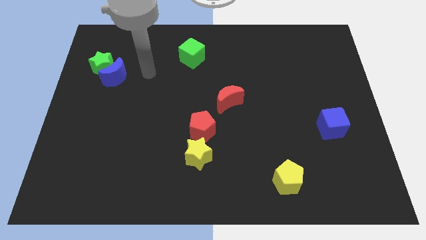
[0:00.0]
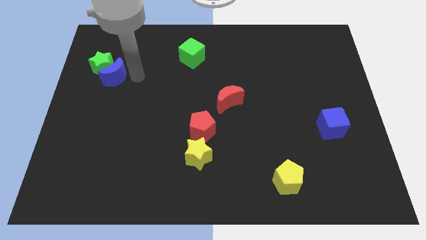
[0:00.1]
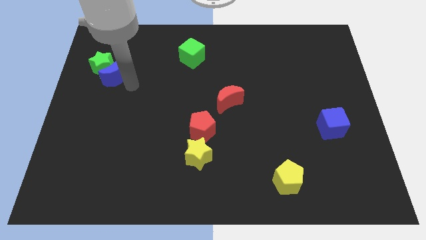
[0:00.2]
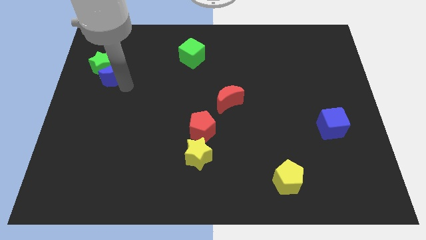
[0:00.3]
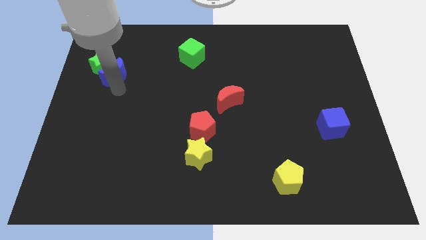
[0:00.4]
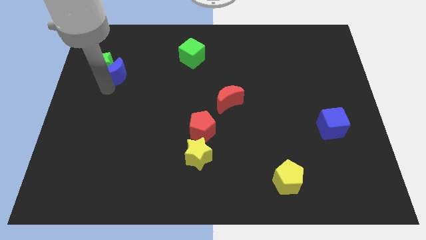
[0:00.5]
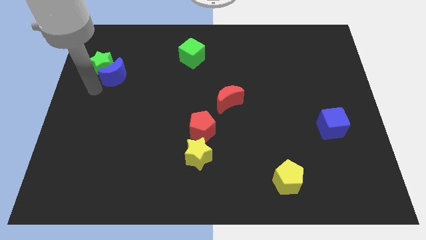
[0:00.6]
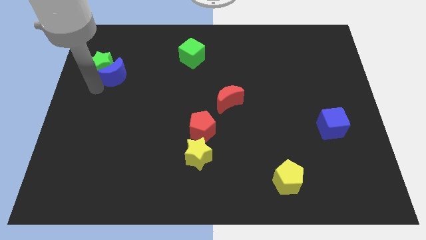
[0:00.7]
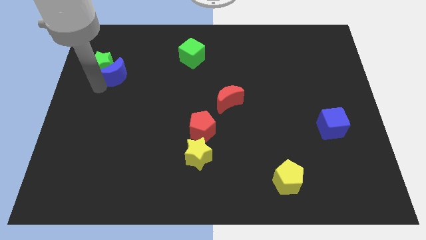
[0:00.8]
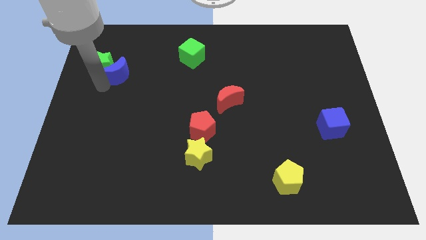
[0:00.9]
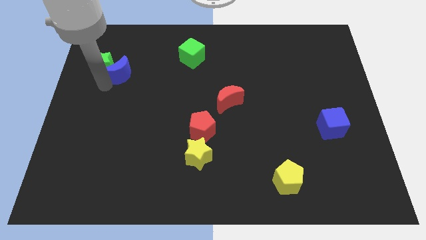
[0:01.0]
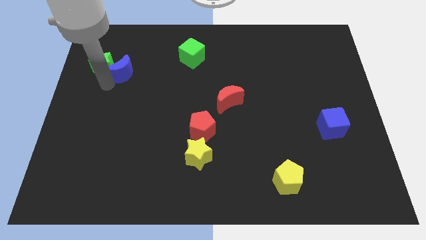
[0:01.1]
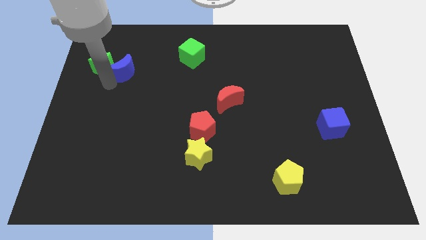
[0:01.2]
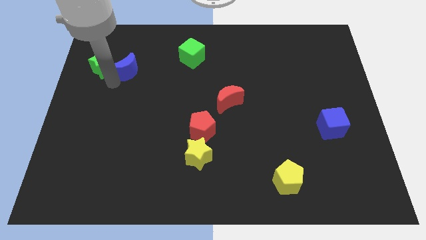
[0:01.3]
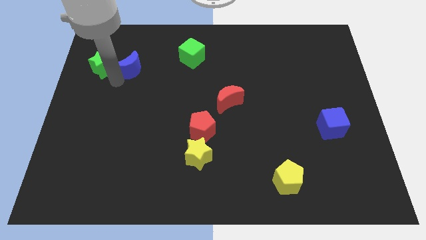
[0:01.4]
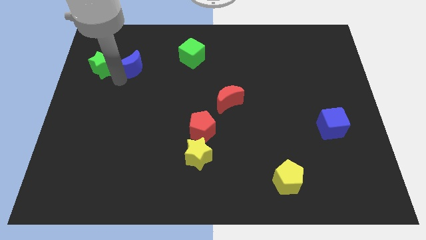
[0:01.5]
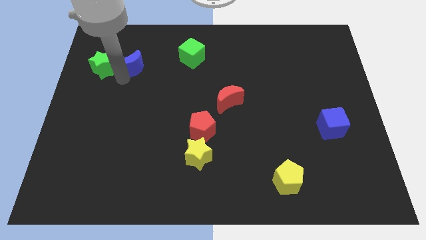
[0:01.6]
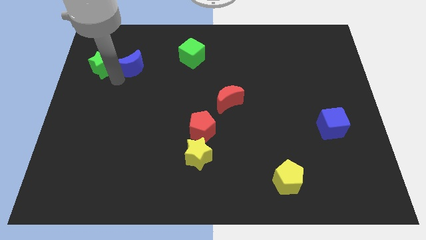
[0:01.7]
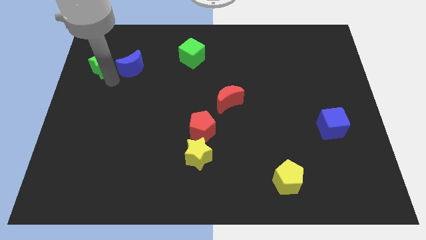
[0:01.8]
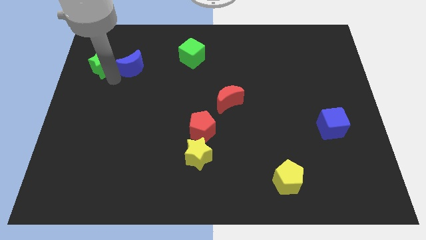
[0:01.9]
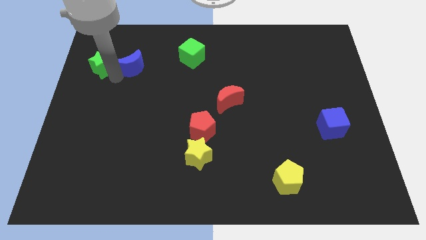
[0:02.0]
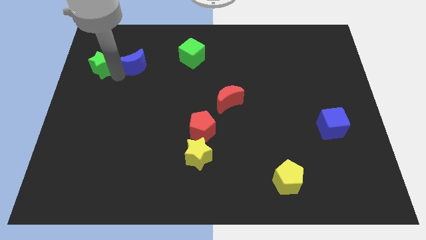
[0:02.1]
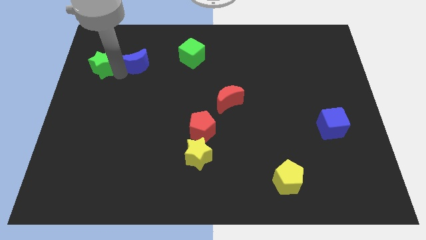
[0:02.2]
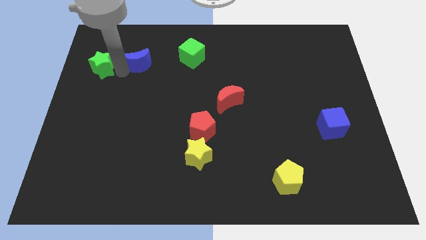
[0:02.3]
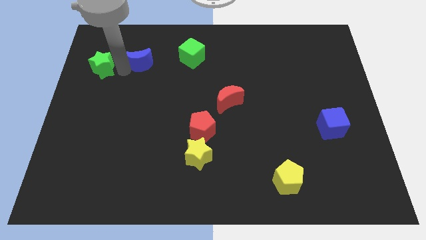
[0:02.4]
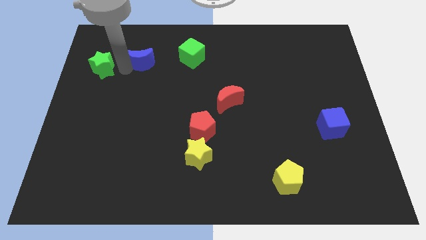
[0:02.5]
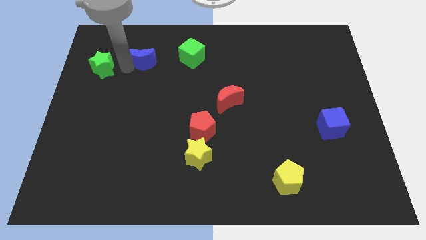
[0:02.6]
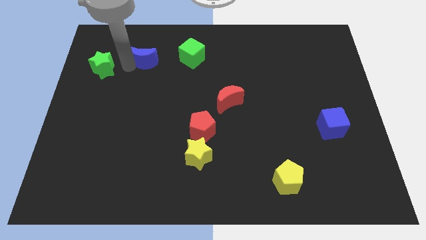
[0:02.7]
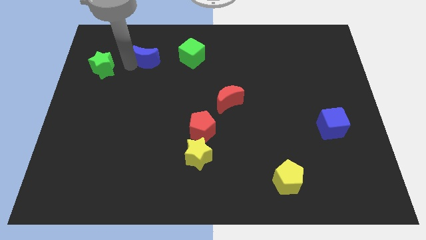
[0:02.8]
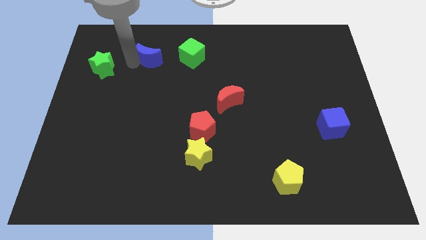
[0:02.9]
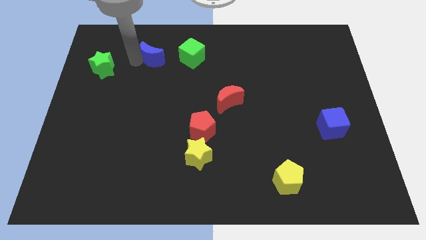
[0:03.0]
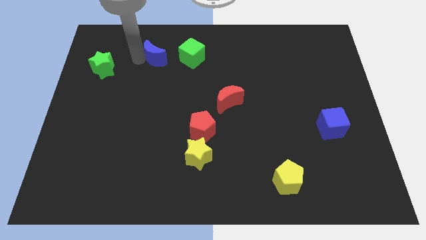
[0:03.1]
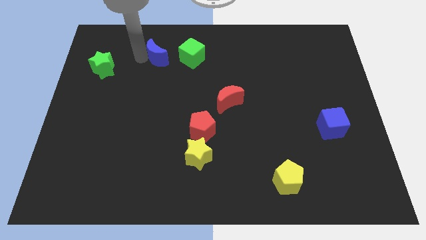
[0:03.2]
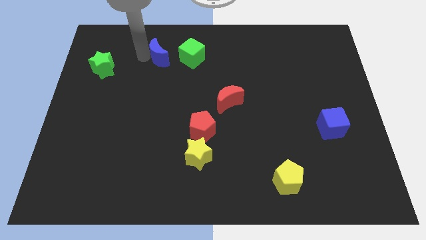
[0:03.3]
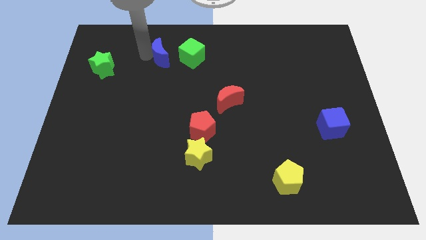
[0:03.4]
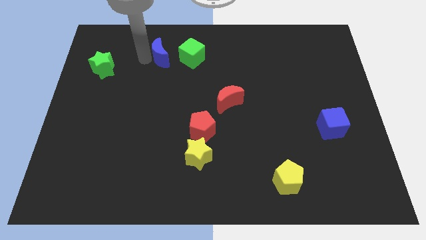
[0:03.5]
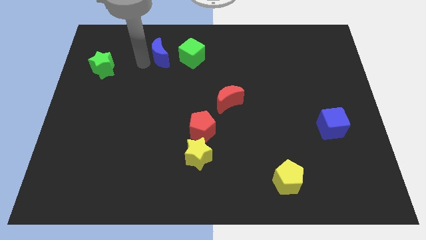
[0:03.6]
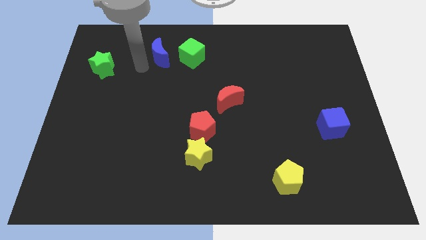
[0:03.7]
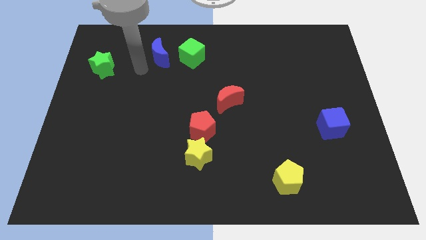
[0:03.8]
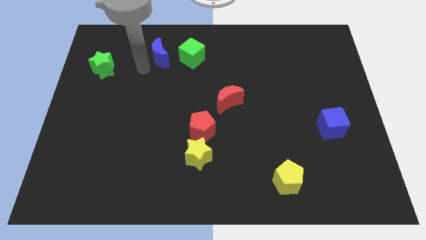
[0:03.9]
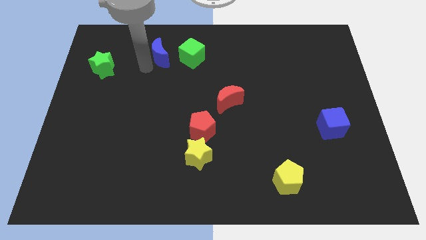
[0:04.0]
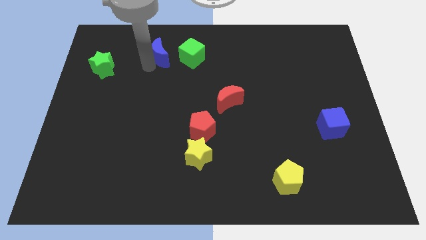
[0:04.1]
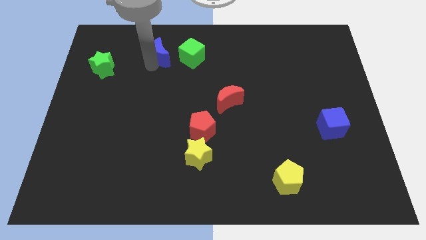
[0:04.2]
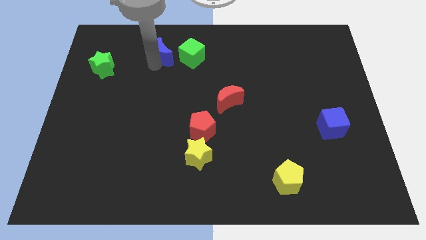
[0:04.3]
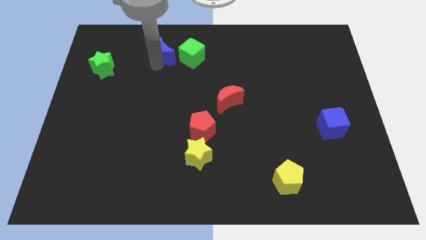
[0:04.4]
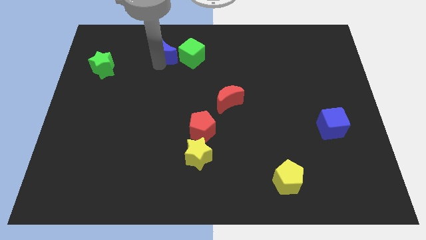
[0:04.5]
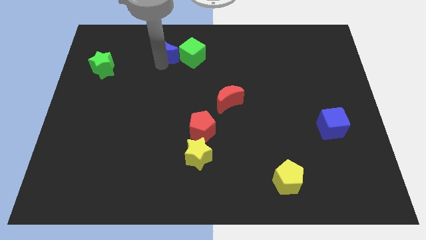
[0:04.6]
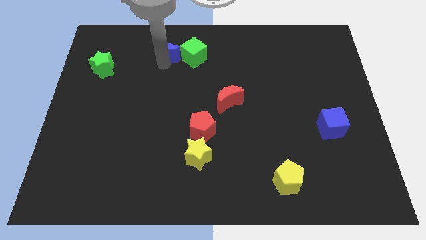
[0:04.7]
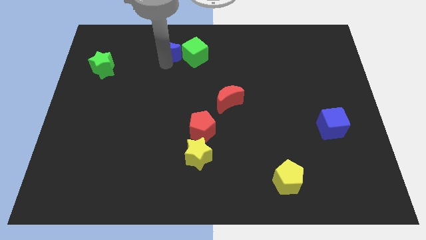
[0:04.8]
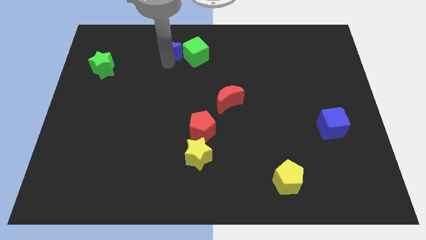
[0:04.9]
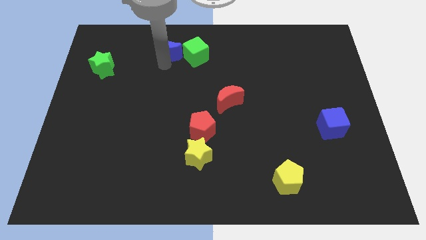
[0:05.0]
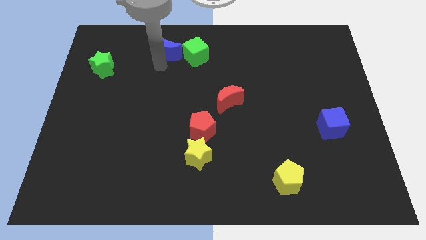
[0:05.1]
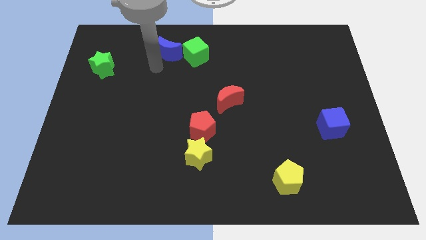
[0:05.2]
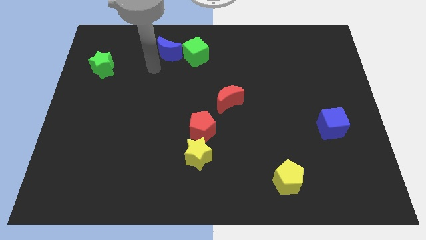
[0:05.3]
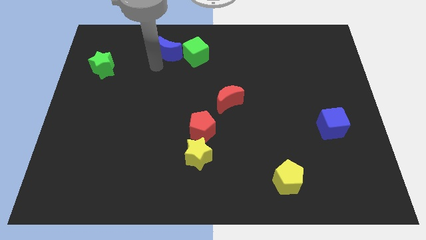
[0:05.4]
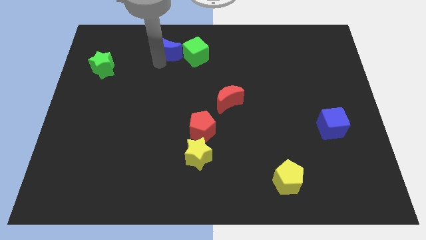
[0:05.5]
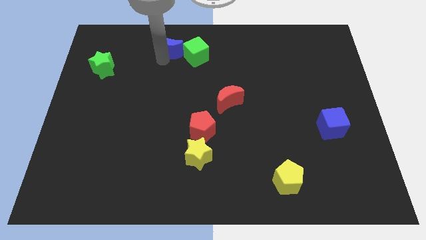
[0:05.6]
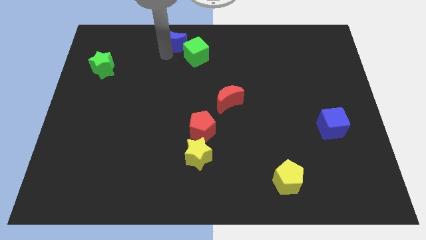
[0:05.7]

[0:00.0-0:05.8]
move the blue moon to the top side

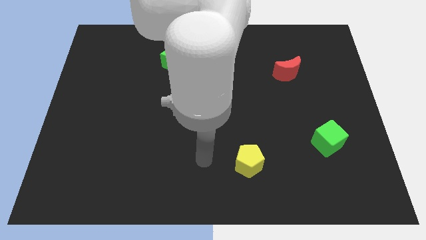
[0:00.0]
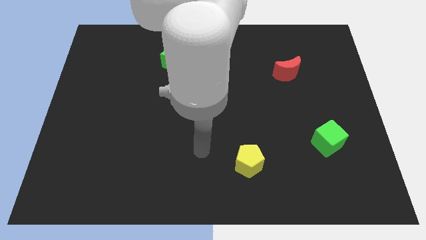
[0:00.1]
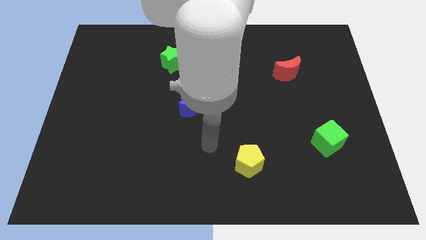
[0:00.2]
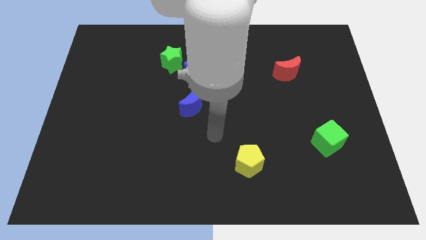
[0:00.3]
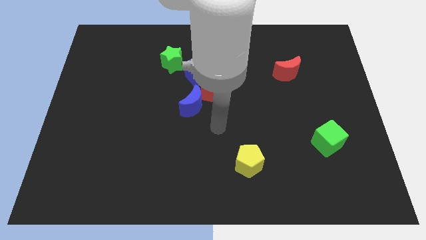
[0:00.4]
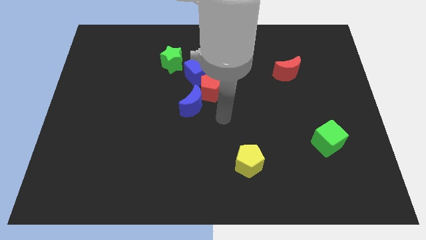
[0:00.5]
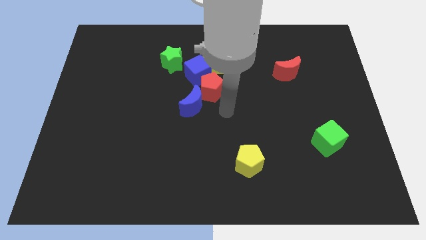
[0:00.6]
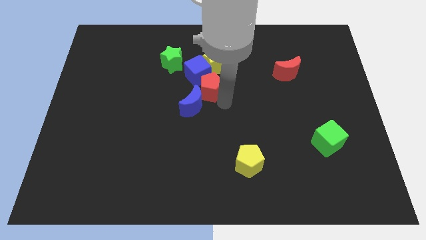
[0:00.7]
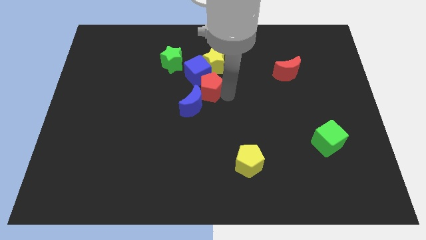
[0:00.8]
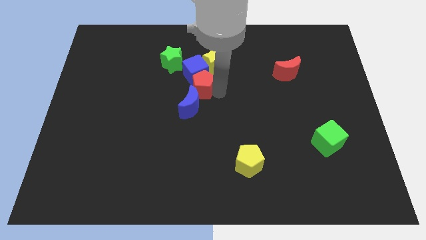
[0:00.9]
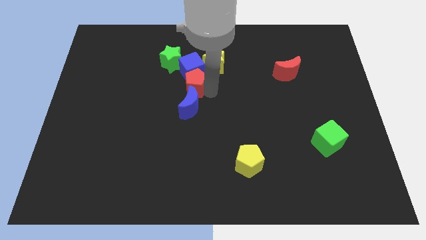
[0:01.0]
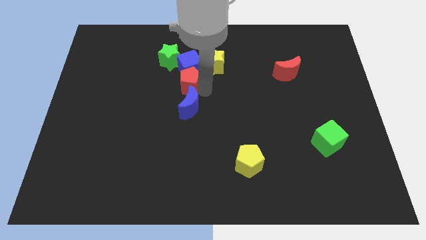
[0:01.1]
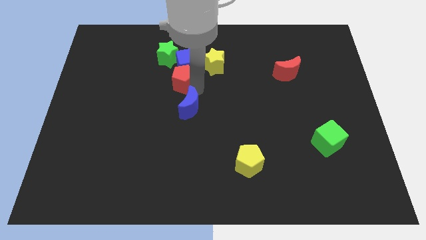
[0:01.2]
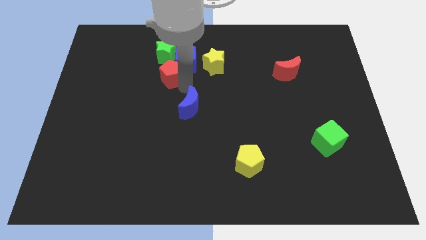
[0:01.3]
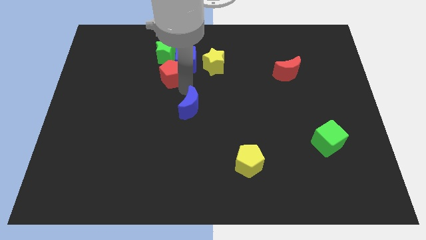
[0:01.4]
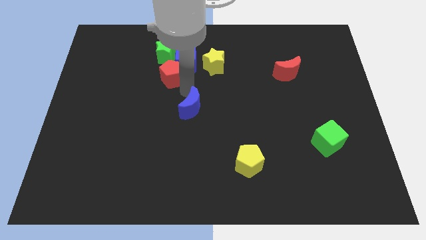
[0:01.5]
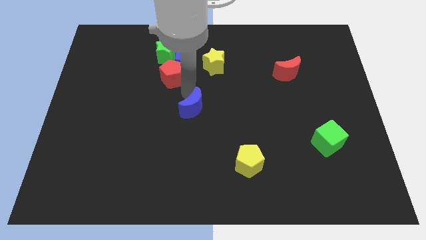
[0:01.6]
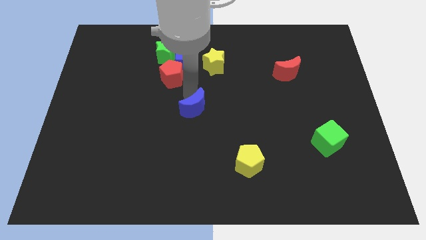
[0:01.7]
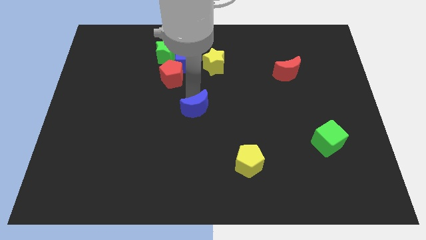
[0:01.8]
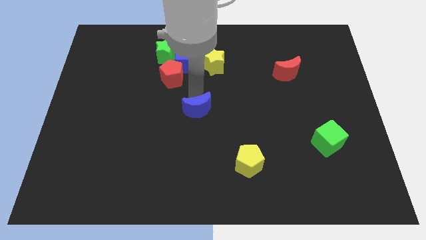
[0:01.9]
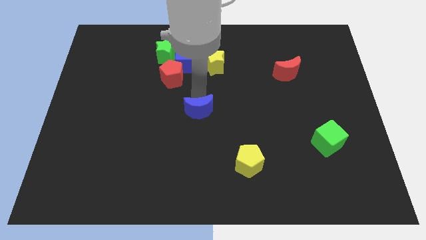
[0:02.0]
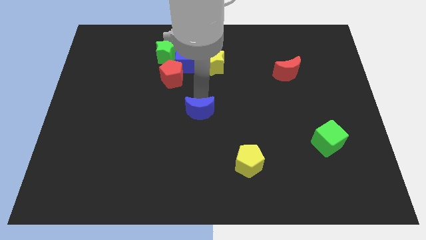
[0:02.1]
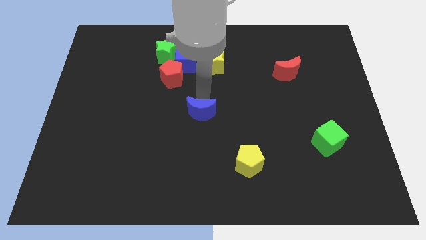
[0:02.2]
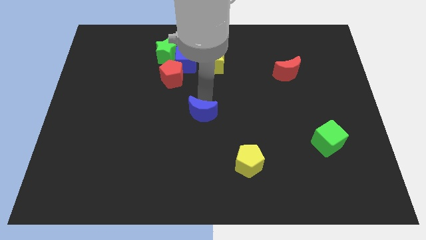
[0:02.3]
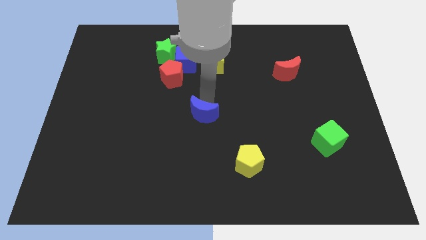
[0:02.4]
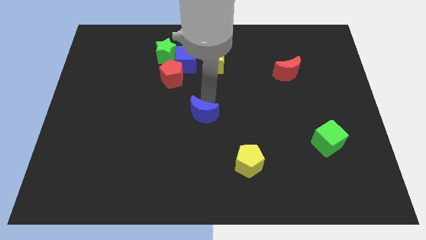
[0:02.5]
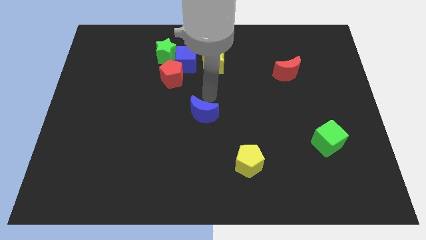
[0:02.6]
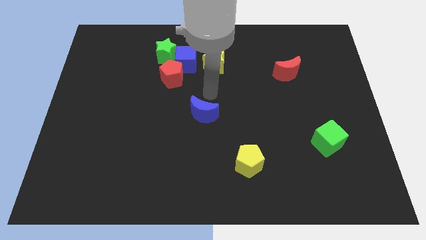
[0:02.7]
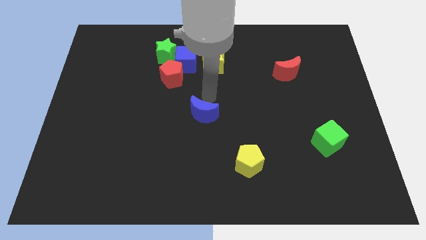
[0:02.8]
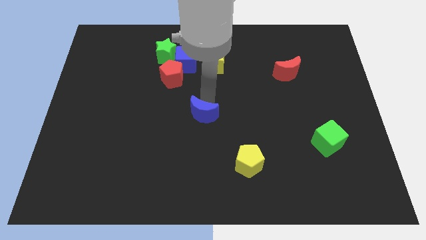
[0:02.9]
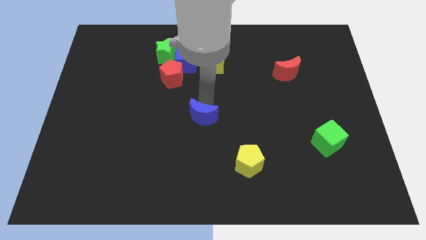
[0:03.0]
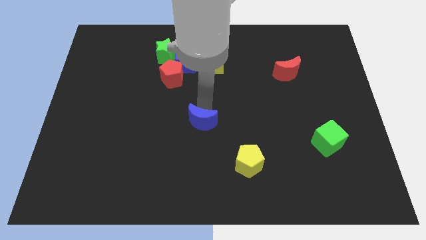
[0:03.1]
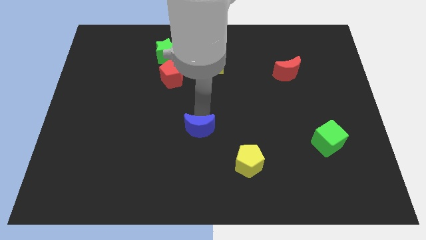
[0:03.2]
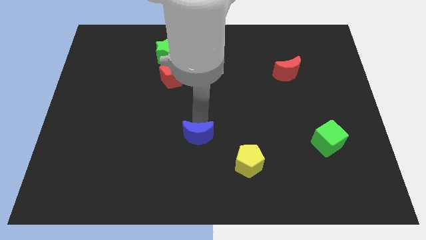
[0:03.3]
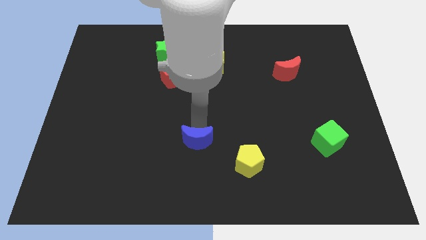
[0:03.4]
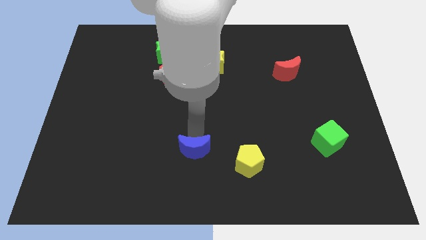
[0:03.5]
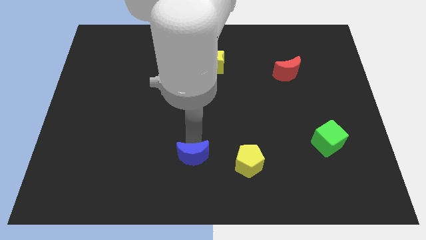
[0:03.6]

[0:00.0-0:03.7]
move the blue moon to the bottom
